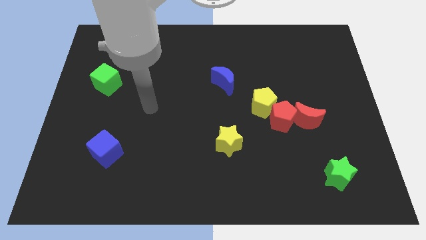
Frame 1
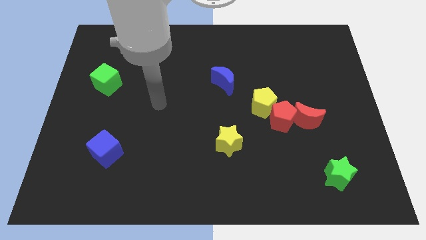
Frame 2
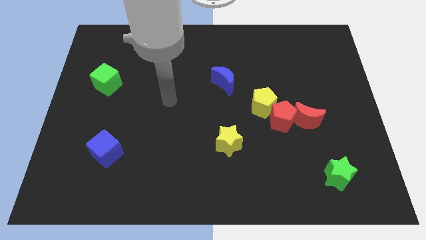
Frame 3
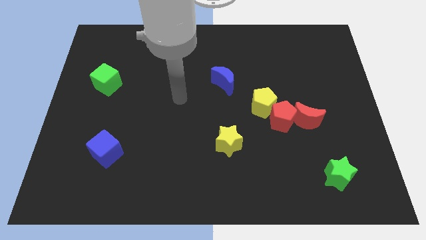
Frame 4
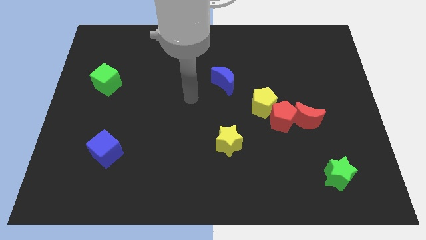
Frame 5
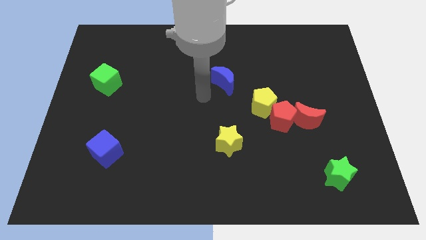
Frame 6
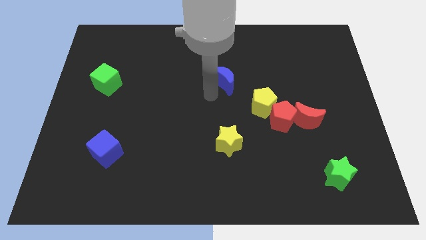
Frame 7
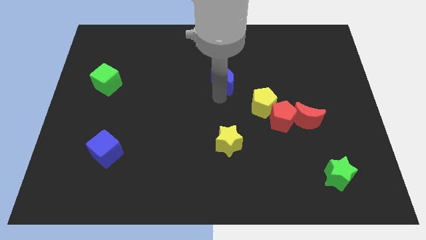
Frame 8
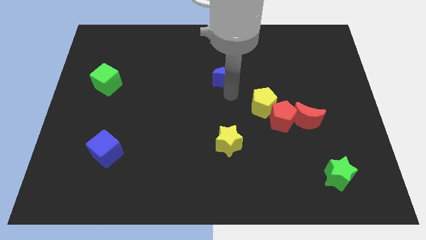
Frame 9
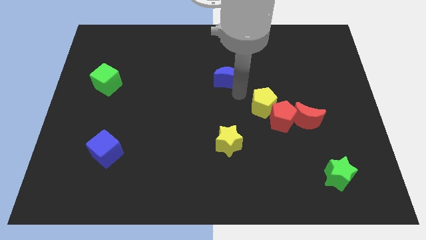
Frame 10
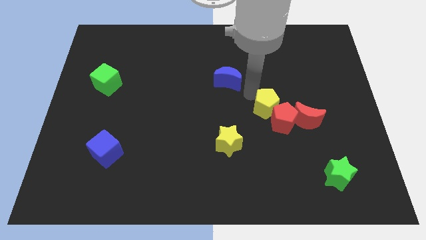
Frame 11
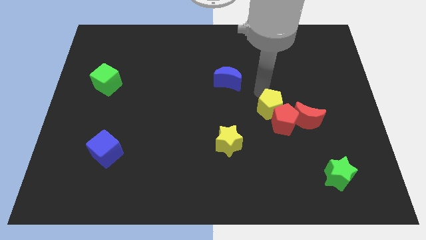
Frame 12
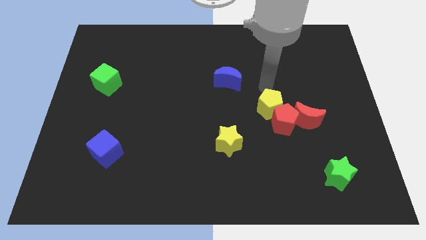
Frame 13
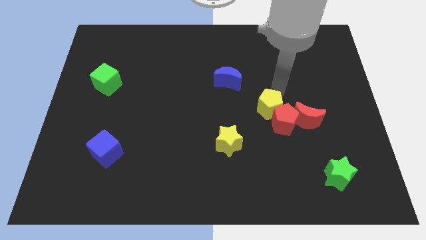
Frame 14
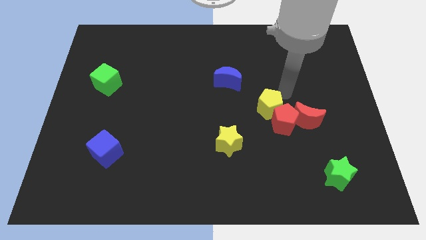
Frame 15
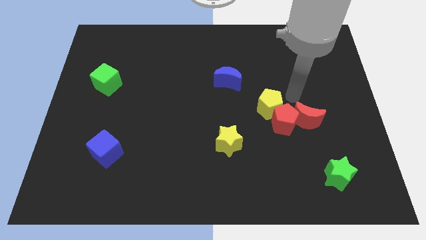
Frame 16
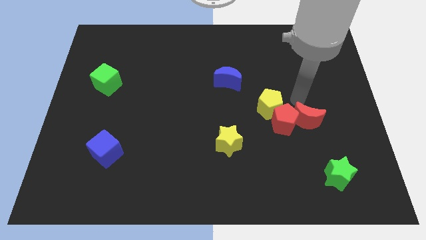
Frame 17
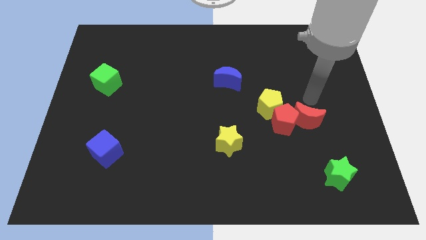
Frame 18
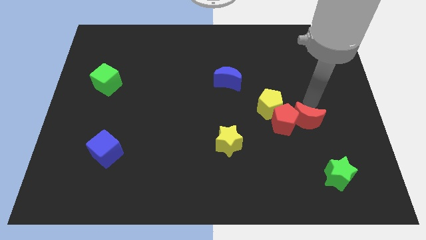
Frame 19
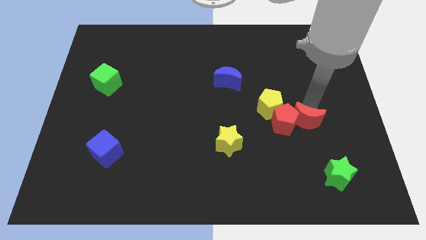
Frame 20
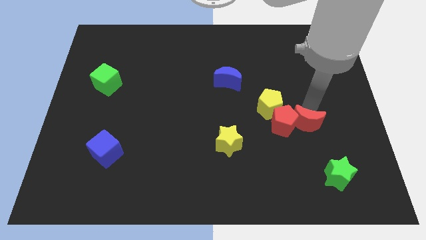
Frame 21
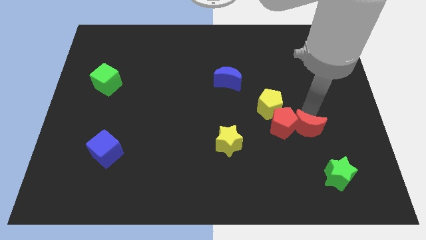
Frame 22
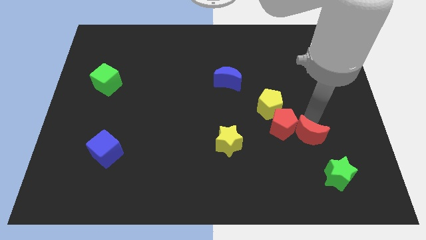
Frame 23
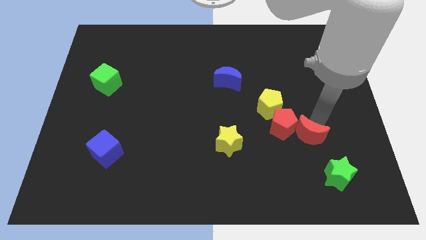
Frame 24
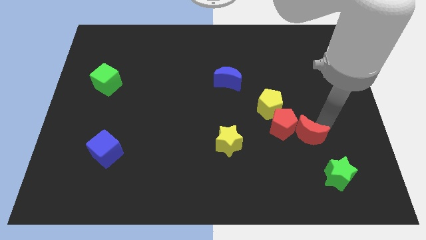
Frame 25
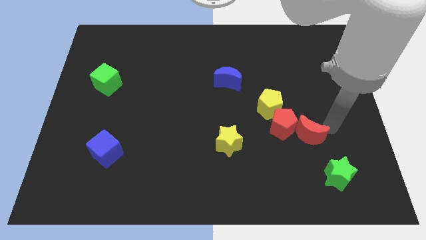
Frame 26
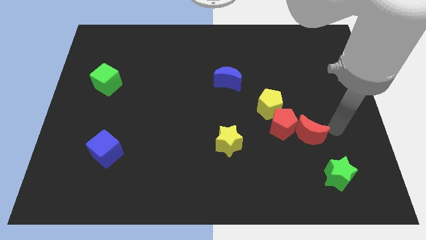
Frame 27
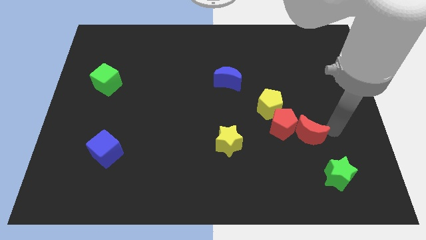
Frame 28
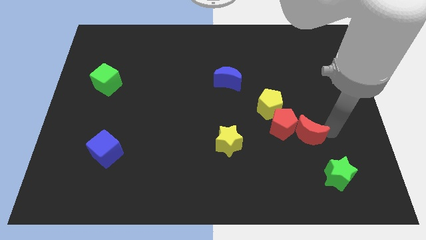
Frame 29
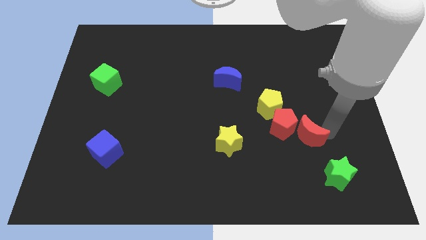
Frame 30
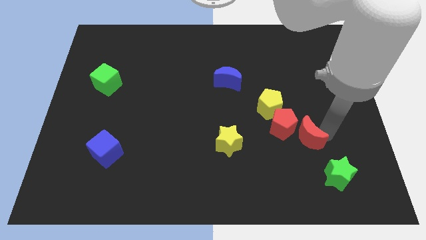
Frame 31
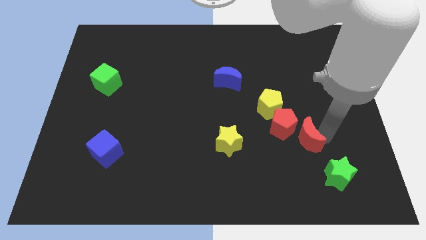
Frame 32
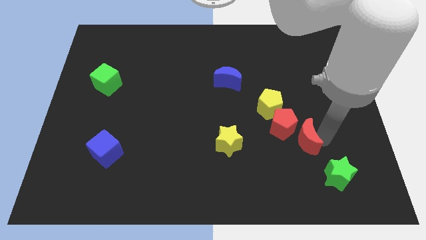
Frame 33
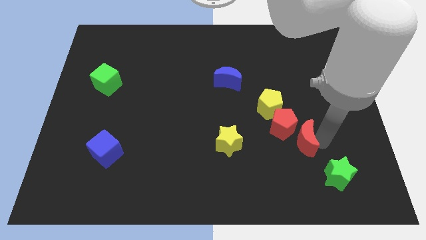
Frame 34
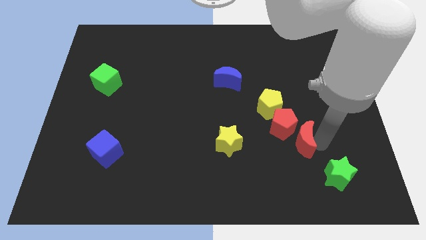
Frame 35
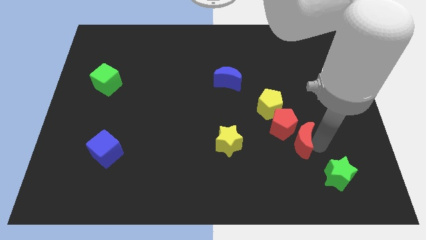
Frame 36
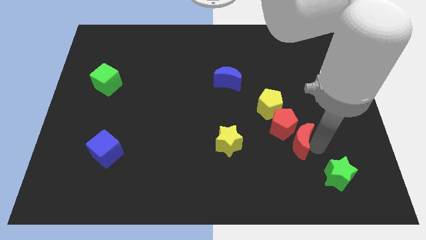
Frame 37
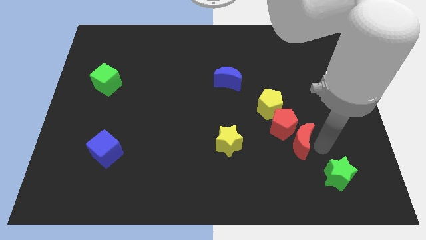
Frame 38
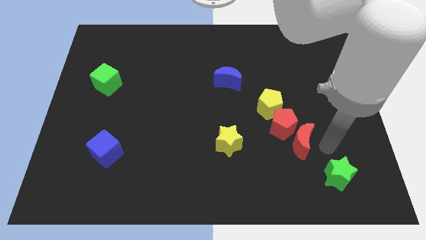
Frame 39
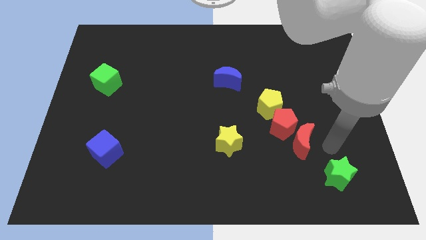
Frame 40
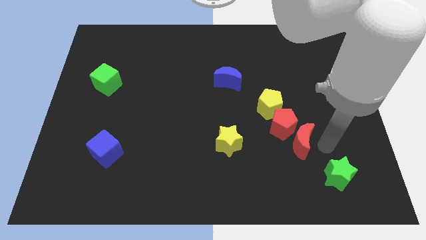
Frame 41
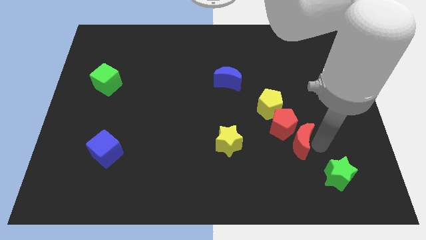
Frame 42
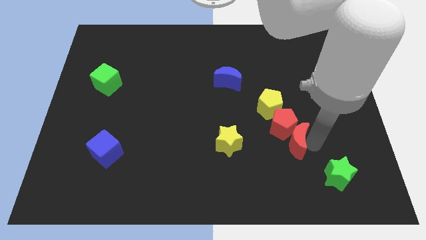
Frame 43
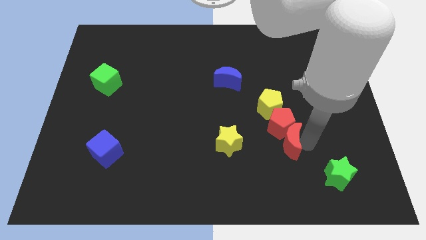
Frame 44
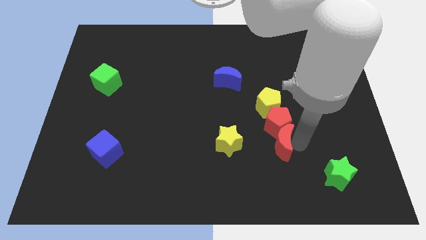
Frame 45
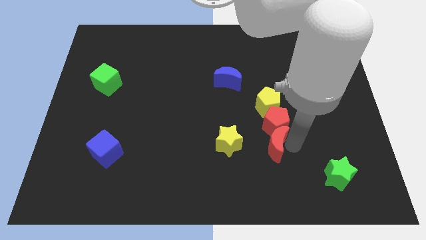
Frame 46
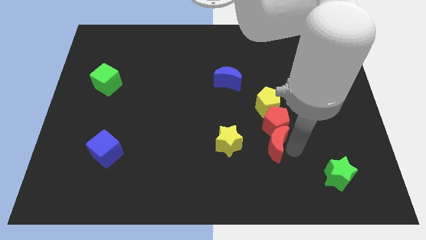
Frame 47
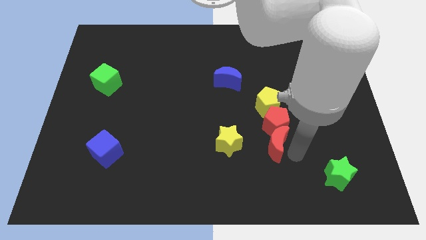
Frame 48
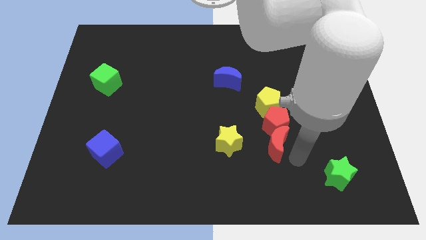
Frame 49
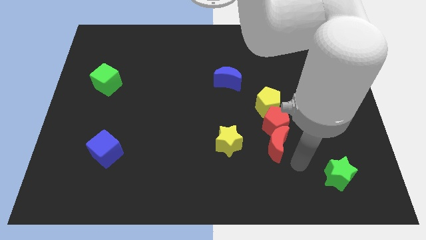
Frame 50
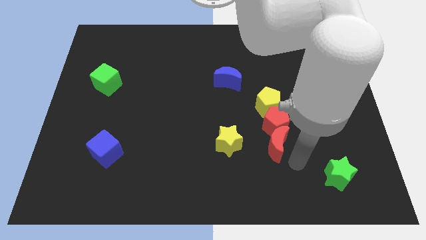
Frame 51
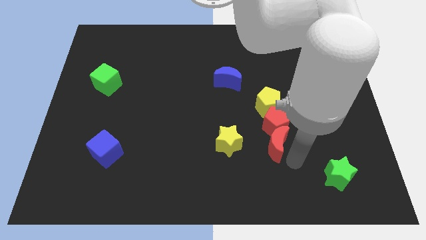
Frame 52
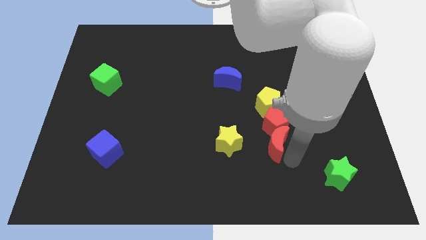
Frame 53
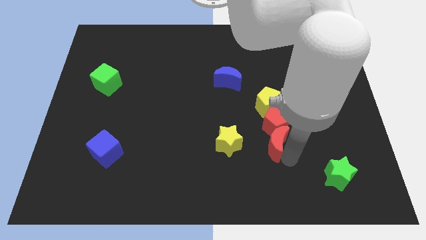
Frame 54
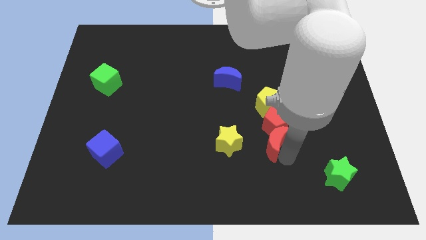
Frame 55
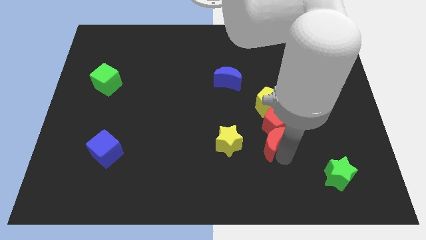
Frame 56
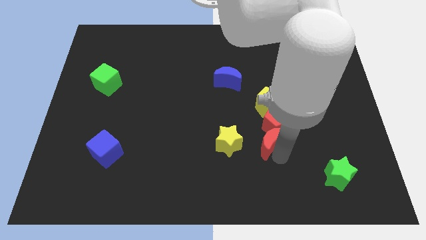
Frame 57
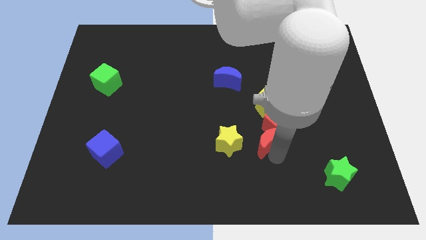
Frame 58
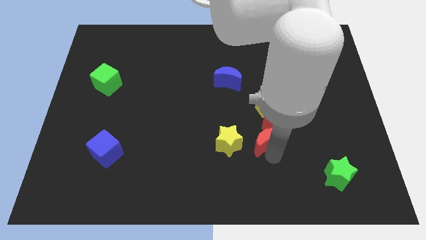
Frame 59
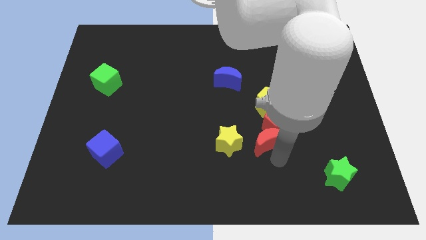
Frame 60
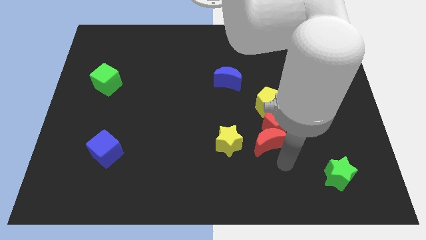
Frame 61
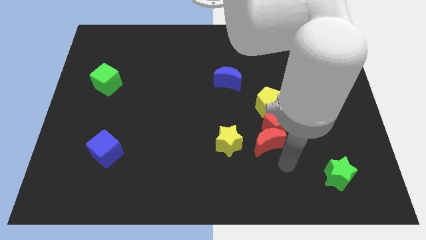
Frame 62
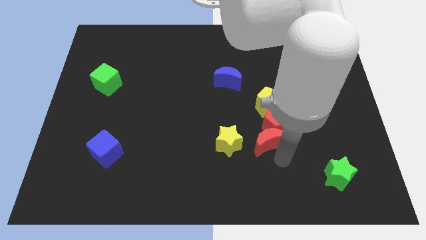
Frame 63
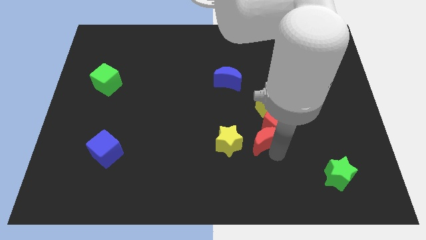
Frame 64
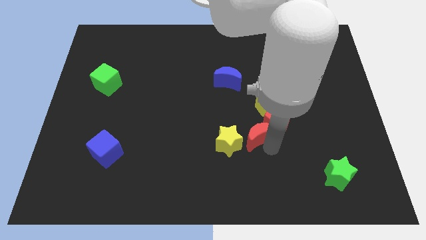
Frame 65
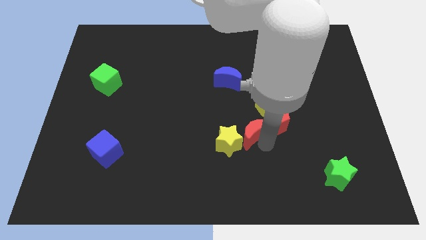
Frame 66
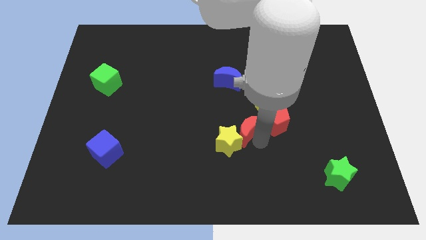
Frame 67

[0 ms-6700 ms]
push the red moon to the center of the board
